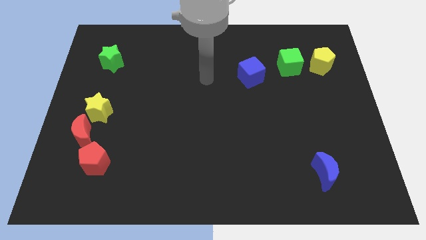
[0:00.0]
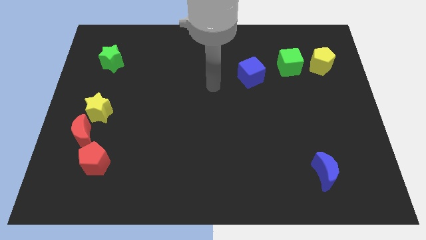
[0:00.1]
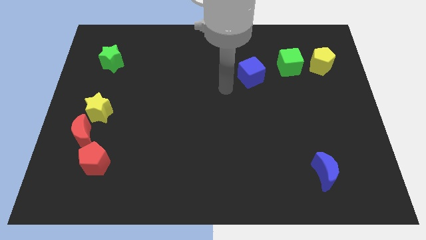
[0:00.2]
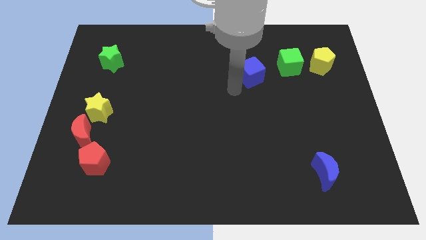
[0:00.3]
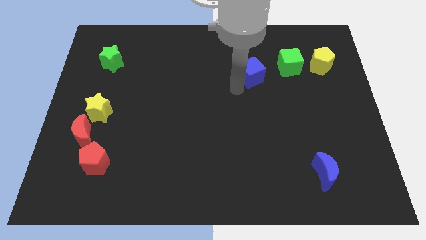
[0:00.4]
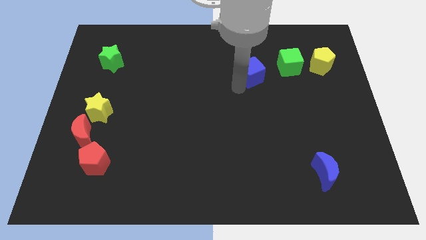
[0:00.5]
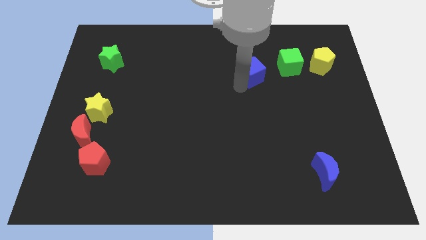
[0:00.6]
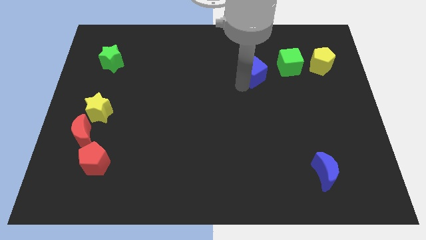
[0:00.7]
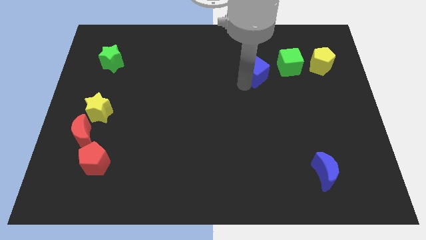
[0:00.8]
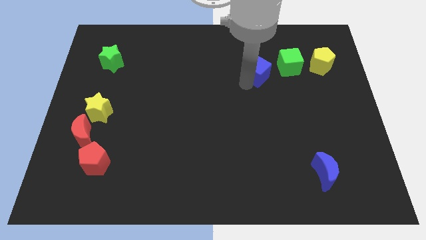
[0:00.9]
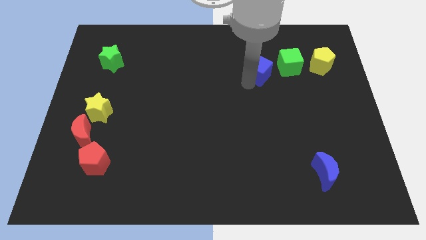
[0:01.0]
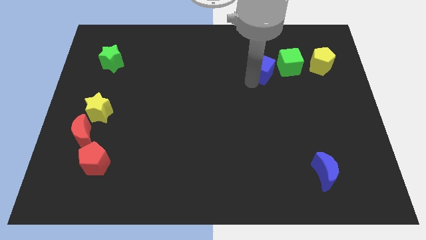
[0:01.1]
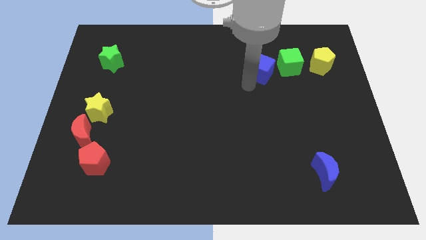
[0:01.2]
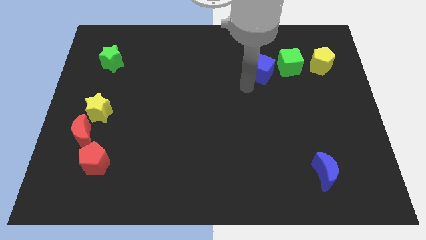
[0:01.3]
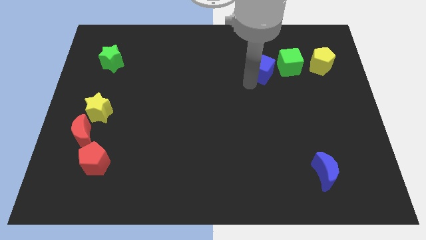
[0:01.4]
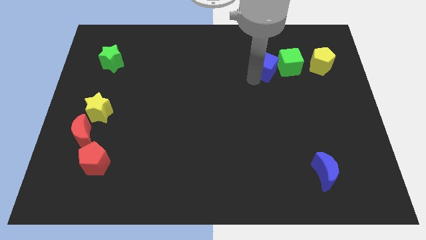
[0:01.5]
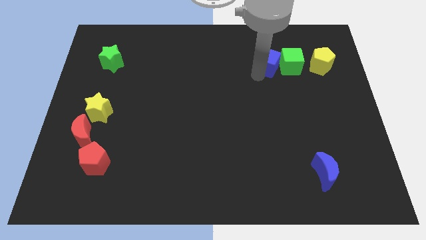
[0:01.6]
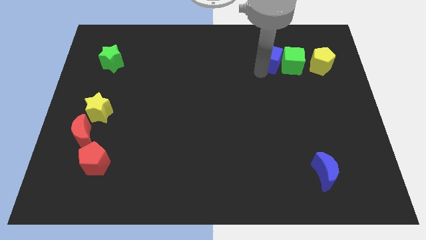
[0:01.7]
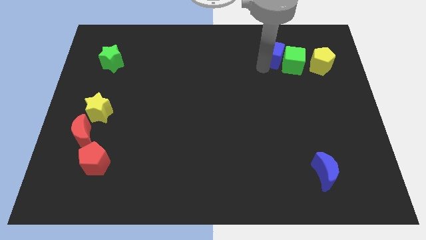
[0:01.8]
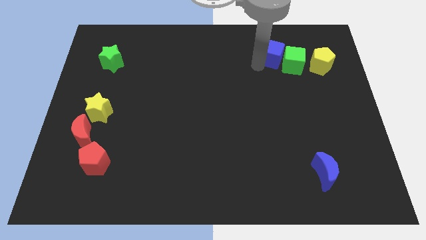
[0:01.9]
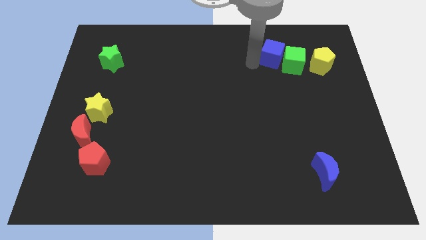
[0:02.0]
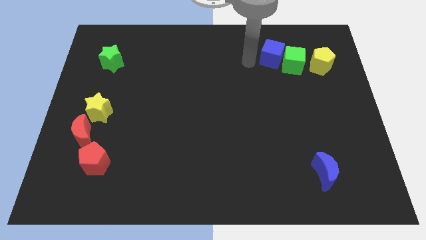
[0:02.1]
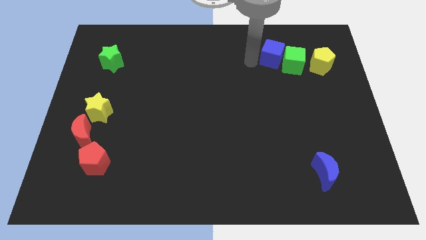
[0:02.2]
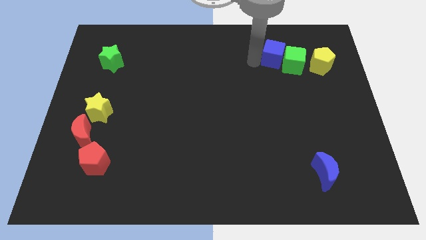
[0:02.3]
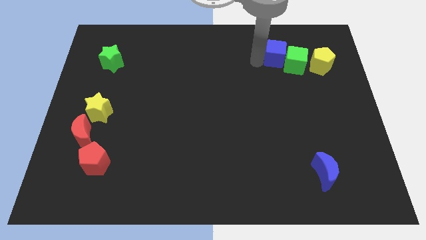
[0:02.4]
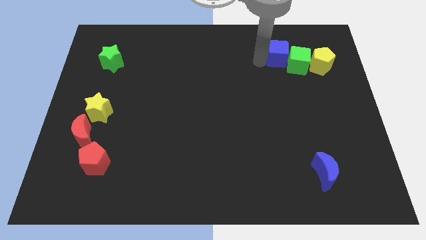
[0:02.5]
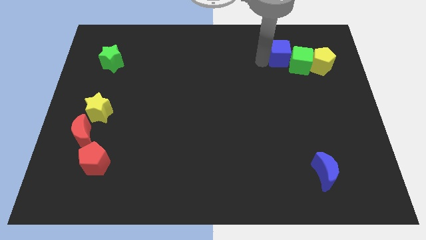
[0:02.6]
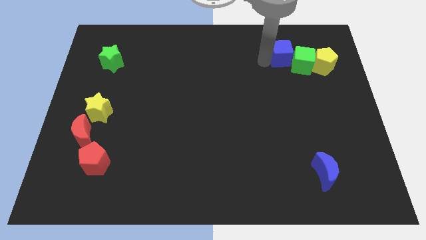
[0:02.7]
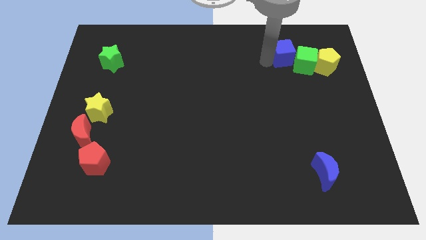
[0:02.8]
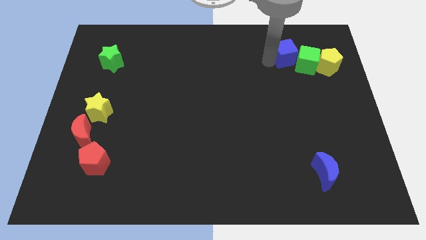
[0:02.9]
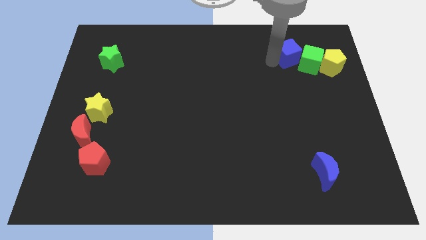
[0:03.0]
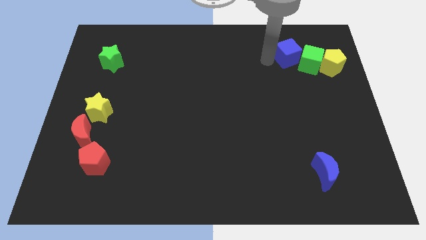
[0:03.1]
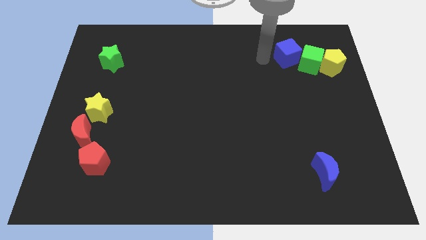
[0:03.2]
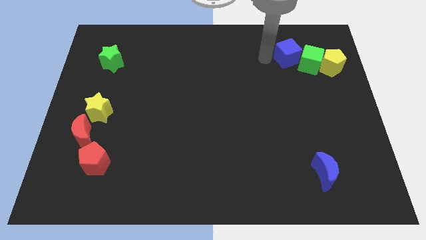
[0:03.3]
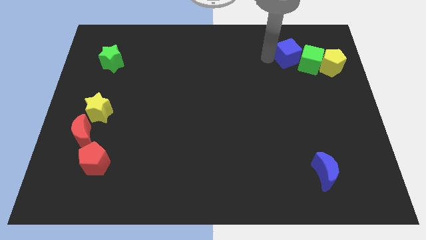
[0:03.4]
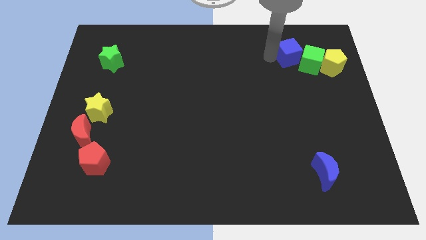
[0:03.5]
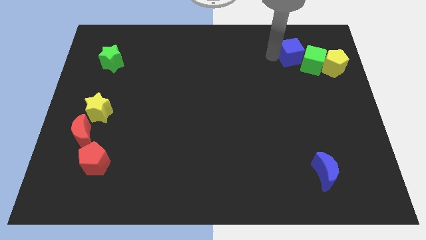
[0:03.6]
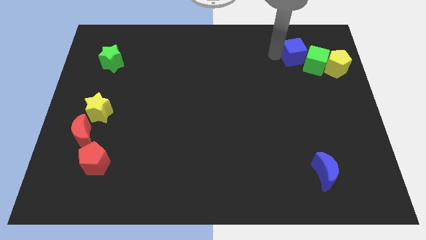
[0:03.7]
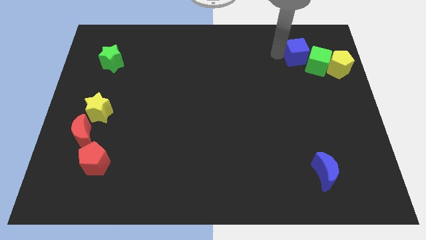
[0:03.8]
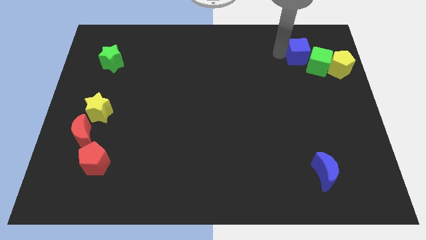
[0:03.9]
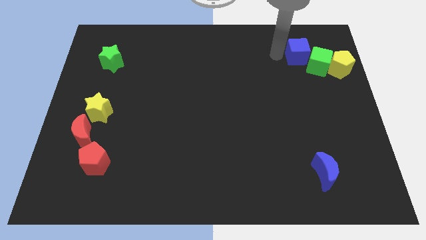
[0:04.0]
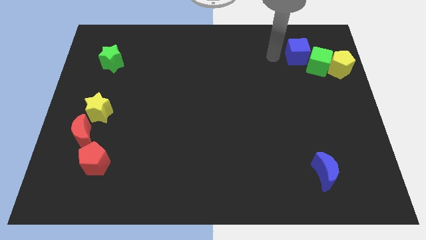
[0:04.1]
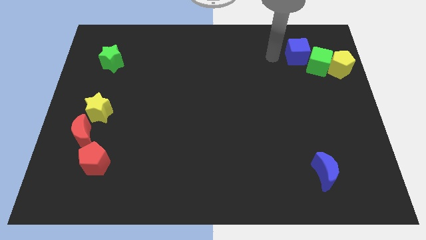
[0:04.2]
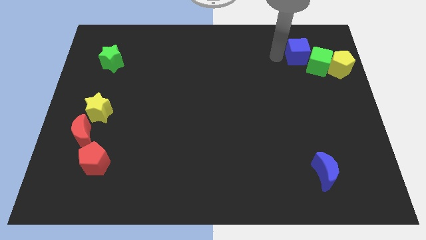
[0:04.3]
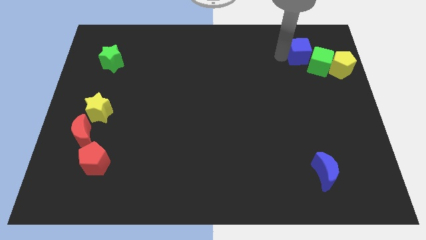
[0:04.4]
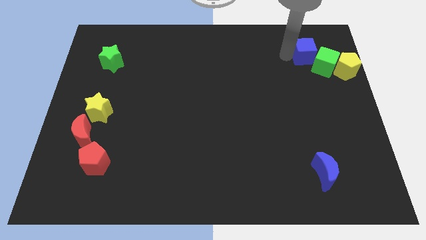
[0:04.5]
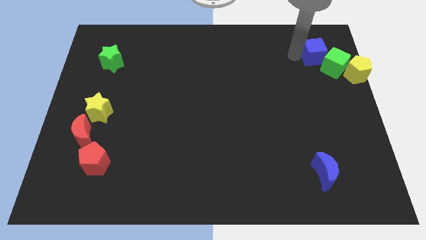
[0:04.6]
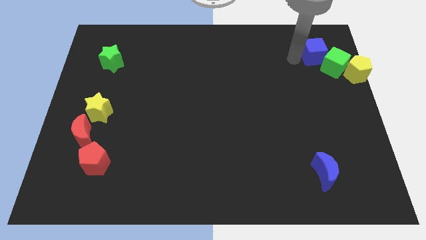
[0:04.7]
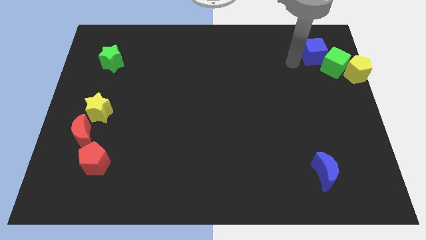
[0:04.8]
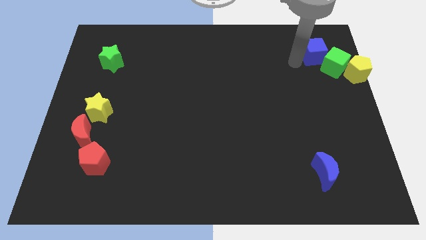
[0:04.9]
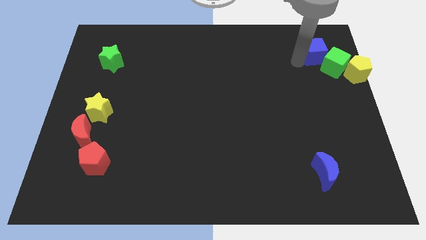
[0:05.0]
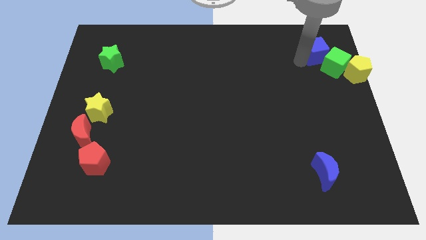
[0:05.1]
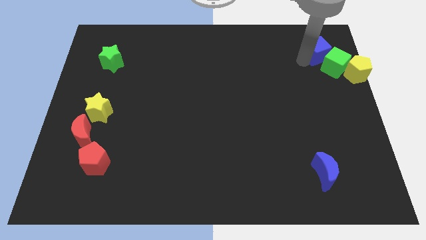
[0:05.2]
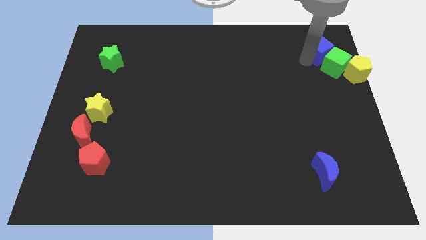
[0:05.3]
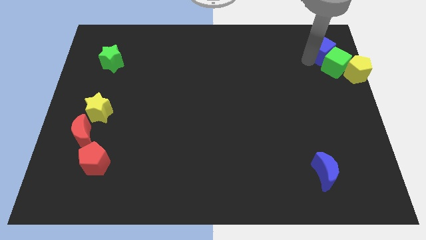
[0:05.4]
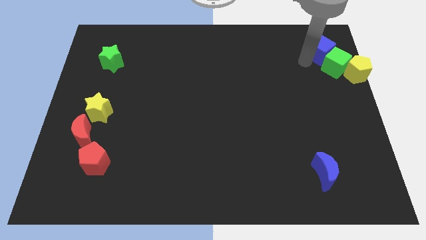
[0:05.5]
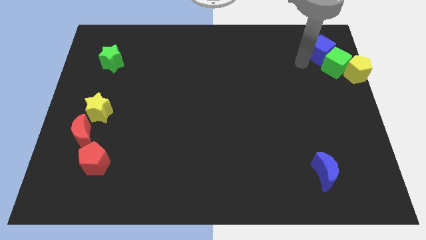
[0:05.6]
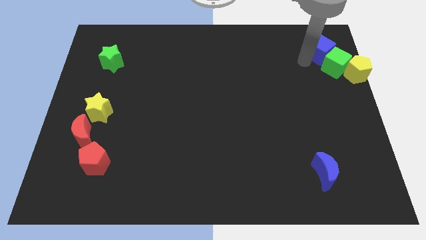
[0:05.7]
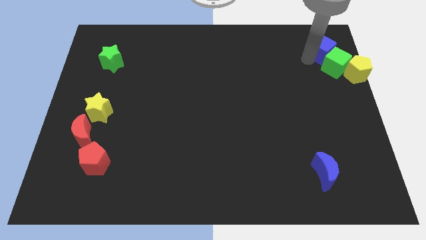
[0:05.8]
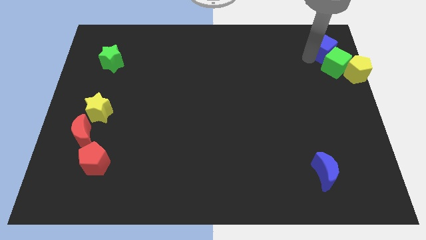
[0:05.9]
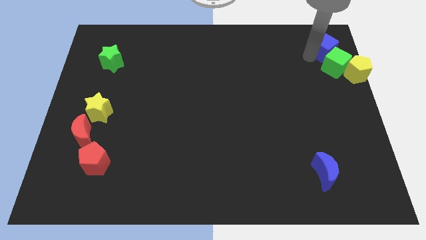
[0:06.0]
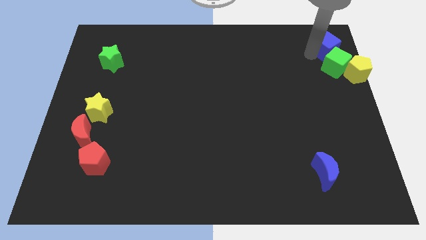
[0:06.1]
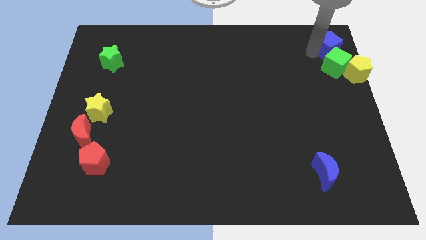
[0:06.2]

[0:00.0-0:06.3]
move the blue cube to the upper right corner

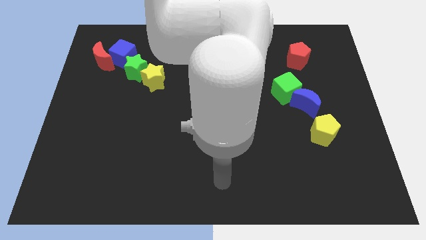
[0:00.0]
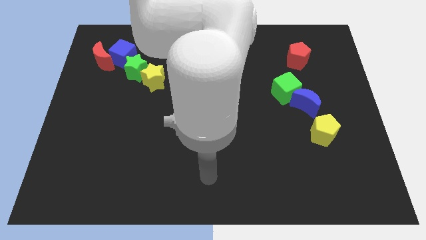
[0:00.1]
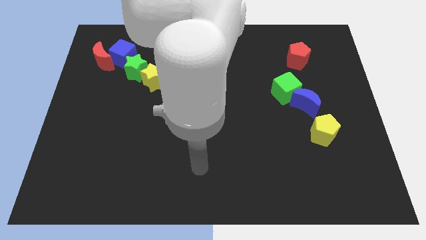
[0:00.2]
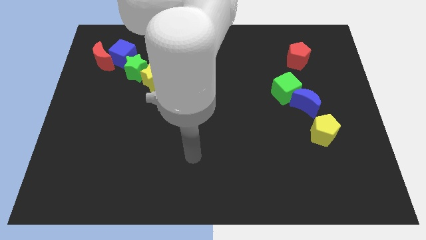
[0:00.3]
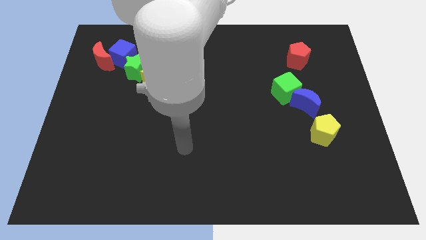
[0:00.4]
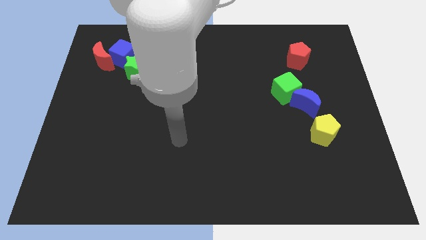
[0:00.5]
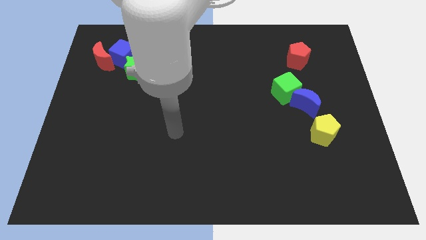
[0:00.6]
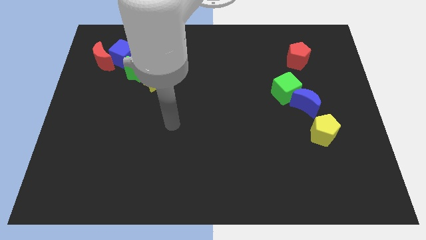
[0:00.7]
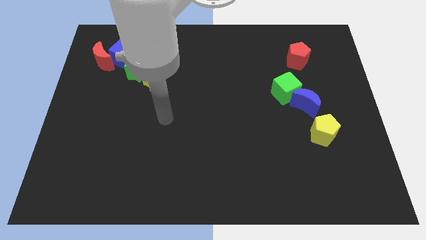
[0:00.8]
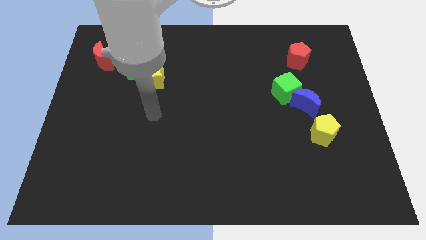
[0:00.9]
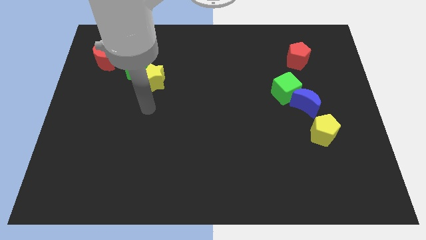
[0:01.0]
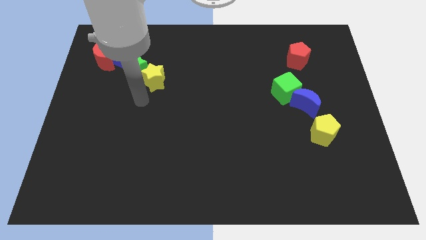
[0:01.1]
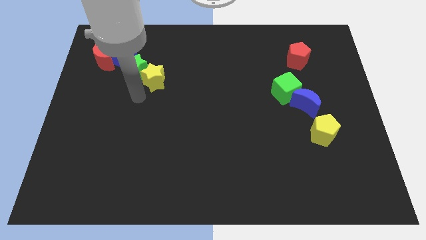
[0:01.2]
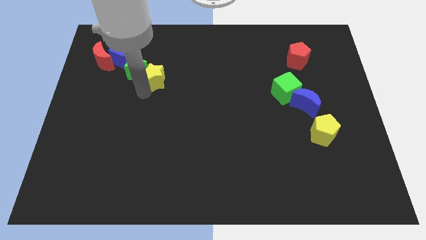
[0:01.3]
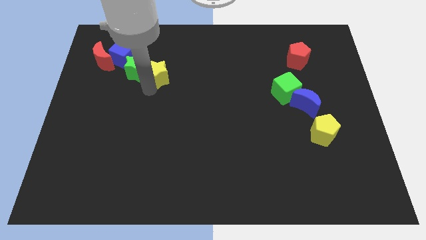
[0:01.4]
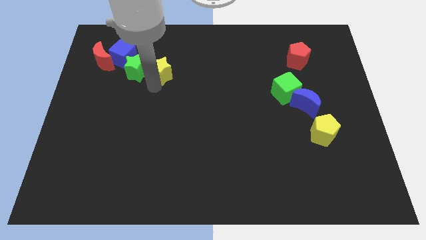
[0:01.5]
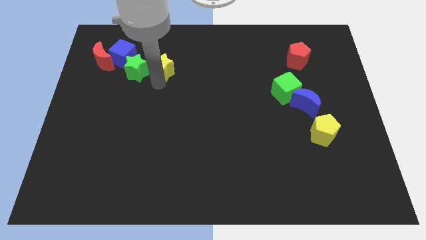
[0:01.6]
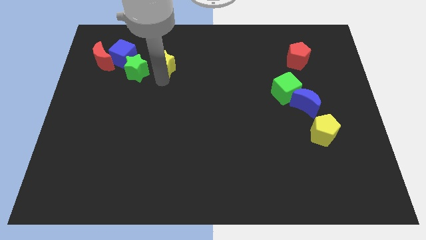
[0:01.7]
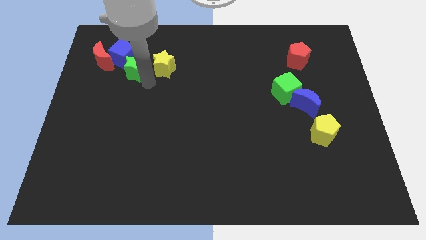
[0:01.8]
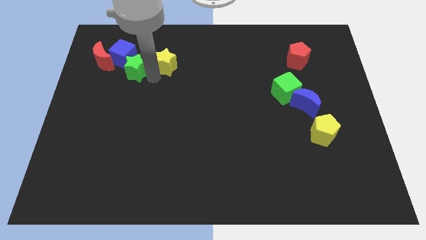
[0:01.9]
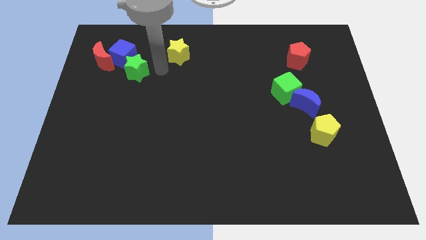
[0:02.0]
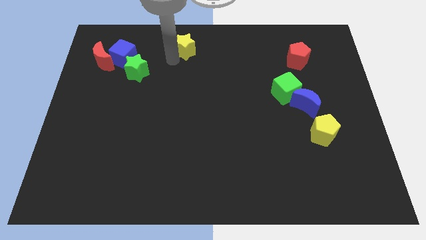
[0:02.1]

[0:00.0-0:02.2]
slide the yellow star to the towards your base
